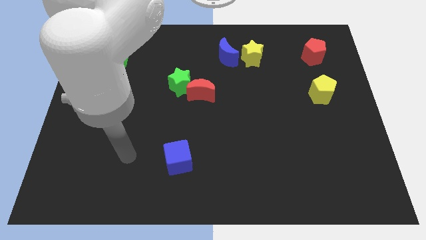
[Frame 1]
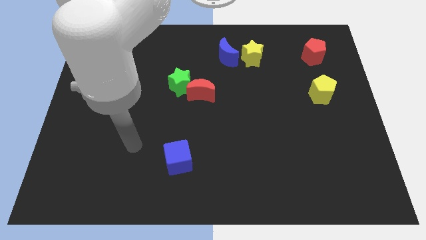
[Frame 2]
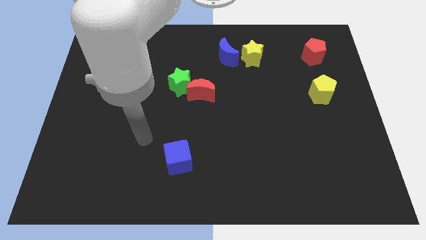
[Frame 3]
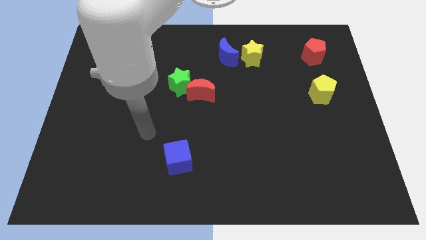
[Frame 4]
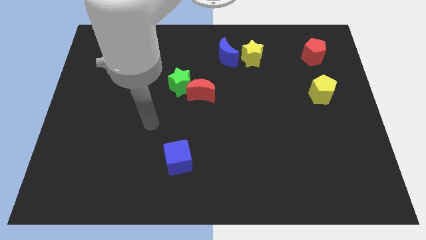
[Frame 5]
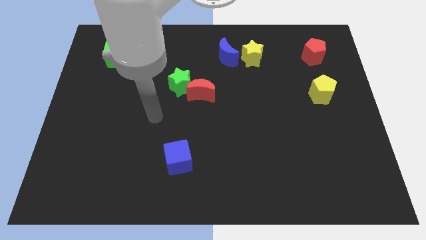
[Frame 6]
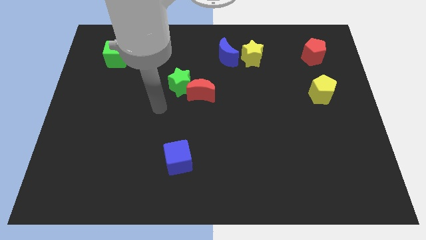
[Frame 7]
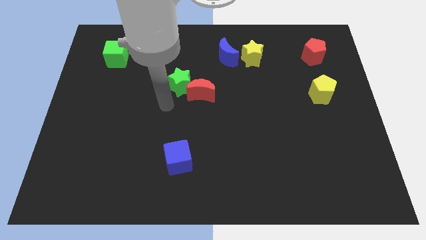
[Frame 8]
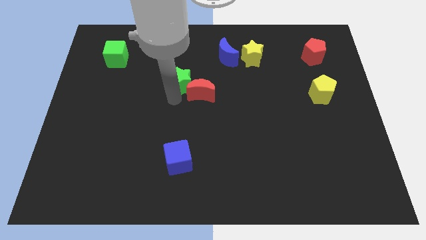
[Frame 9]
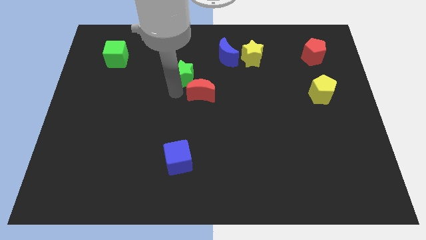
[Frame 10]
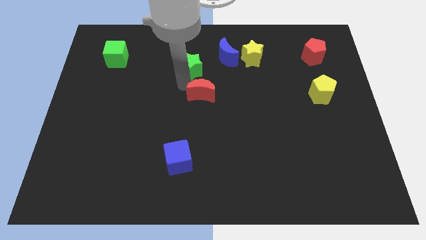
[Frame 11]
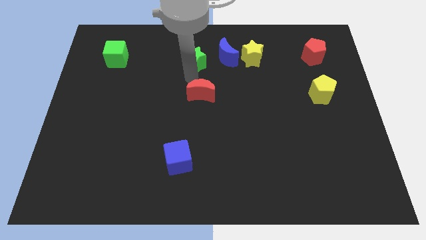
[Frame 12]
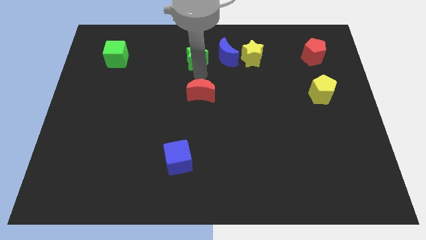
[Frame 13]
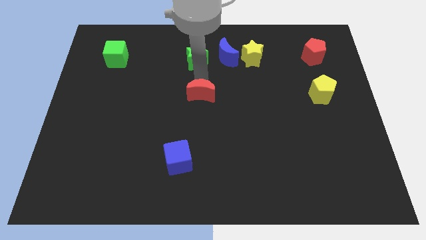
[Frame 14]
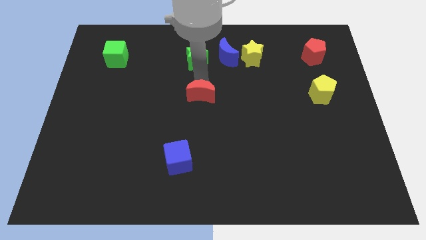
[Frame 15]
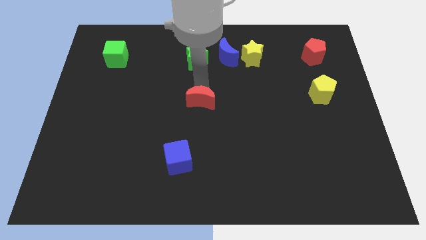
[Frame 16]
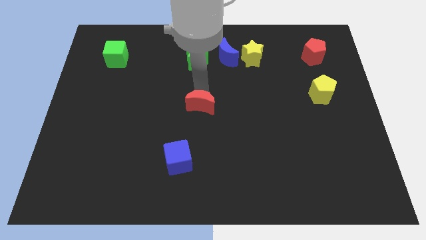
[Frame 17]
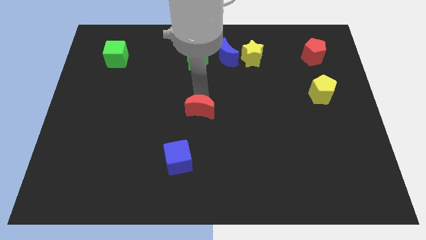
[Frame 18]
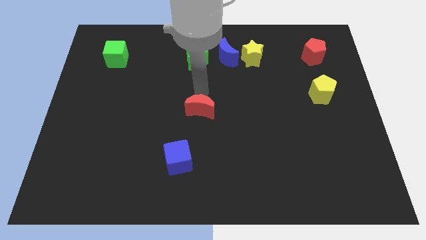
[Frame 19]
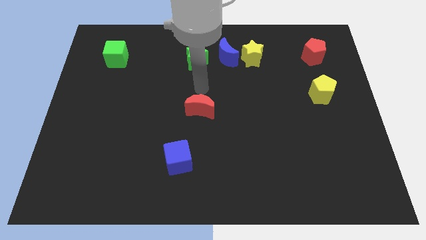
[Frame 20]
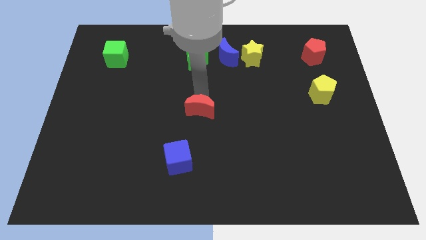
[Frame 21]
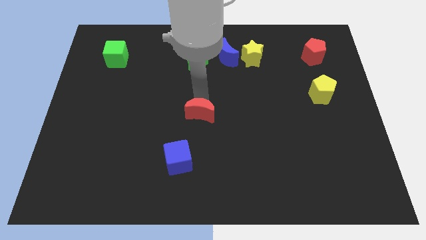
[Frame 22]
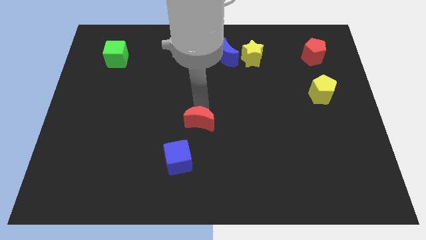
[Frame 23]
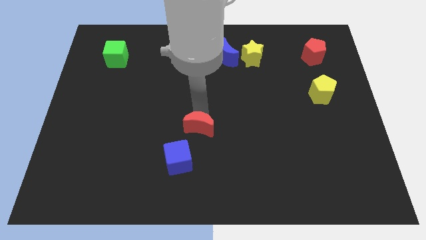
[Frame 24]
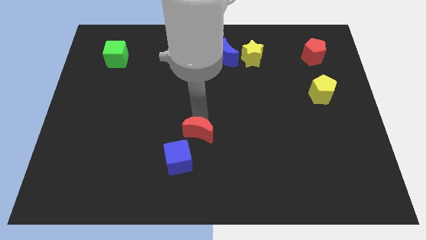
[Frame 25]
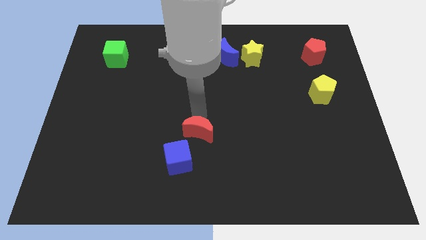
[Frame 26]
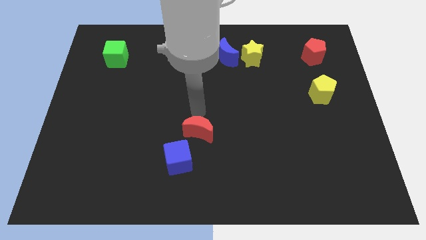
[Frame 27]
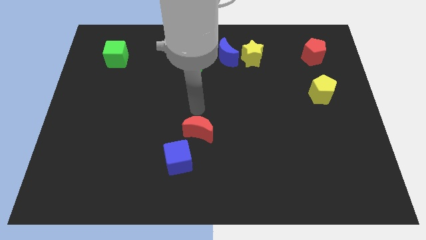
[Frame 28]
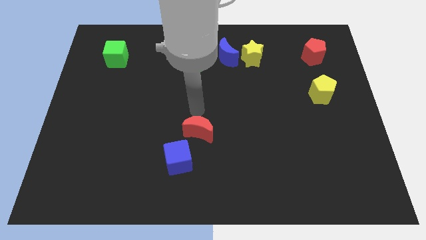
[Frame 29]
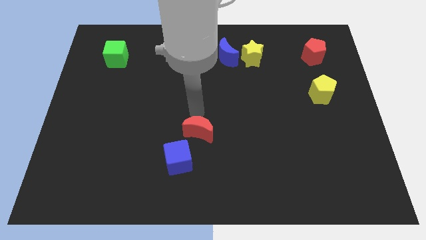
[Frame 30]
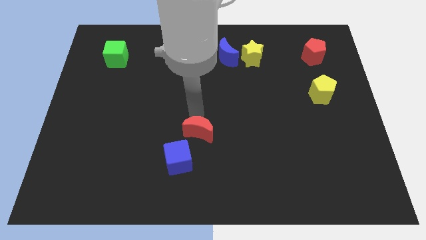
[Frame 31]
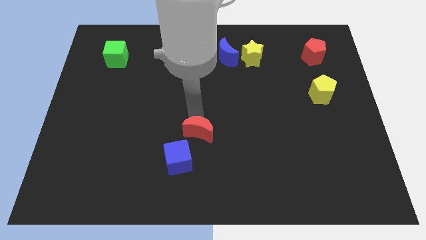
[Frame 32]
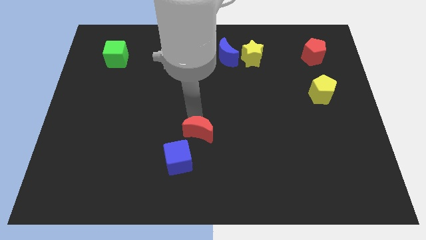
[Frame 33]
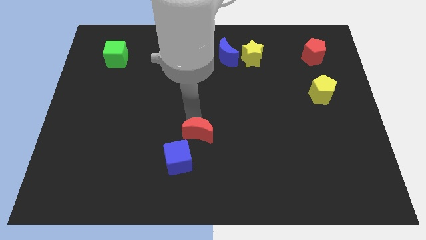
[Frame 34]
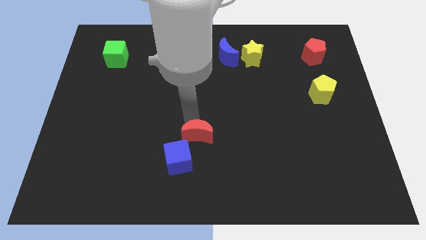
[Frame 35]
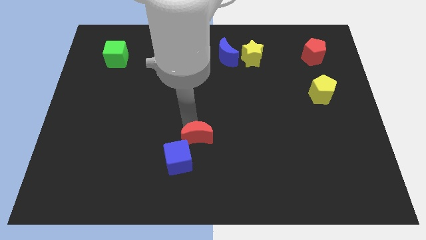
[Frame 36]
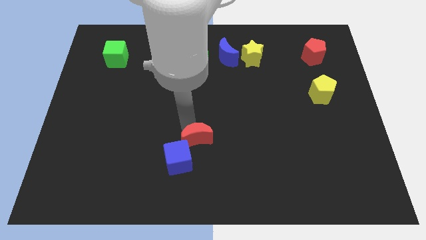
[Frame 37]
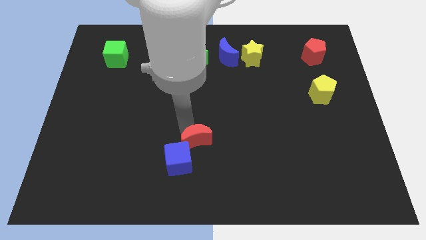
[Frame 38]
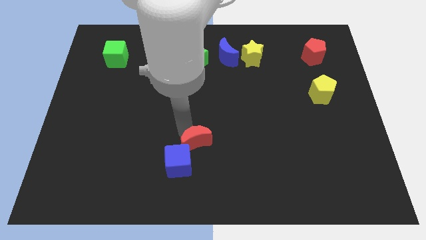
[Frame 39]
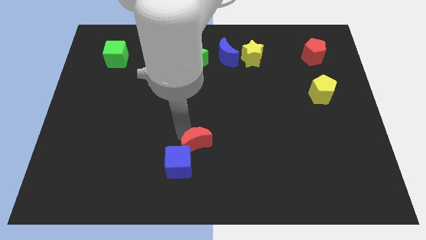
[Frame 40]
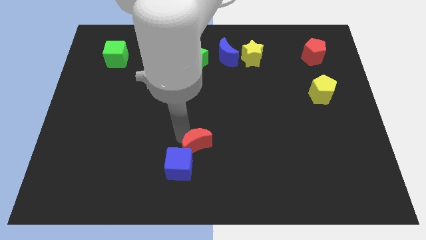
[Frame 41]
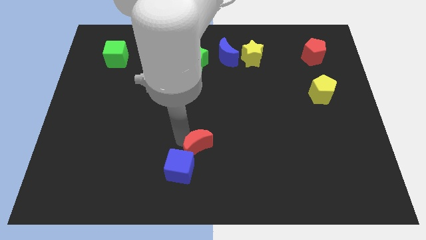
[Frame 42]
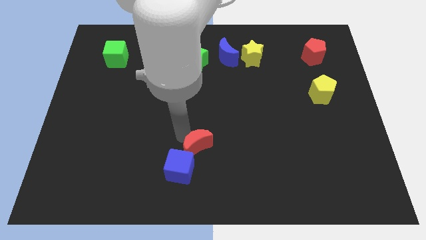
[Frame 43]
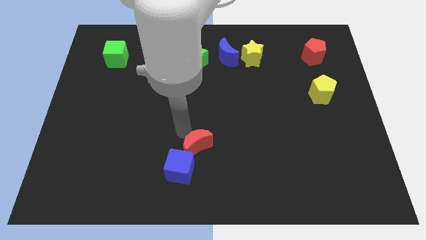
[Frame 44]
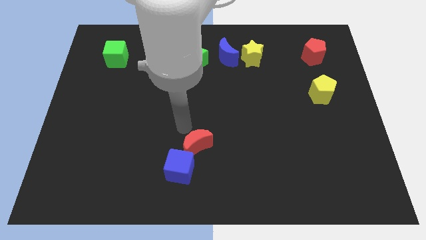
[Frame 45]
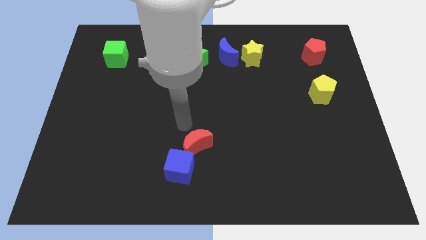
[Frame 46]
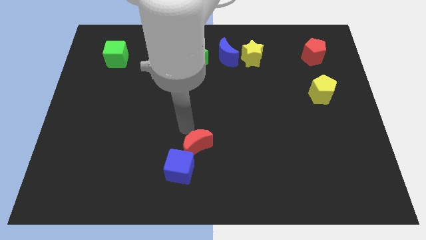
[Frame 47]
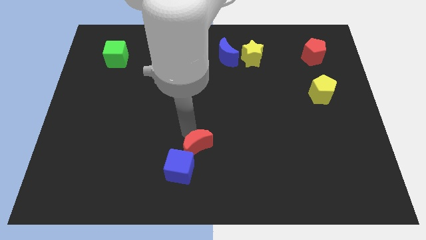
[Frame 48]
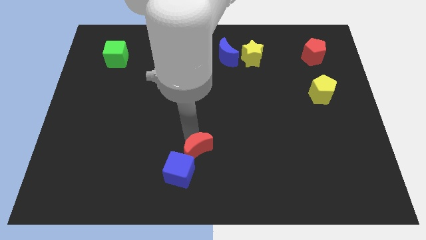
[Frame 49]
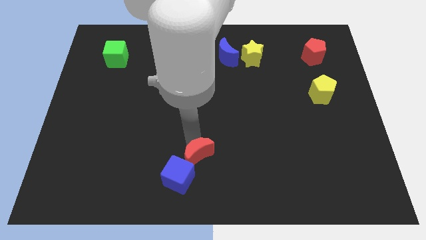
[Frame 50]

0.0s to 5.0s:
move the red moon to the bottom side

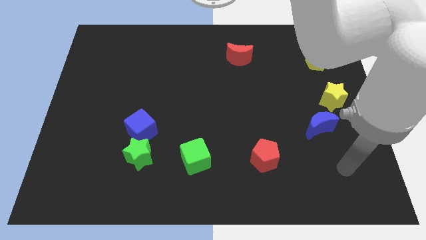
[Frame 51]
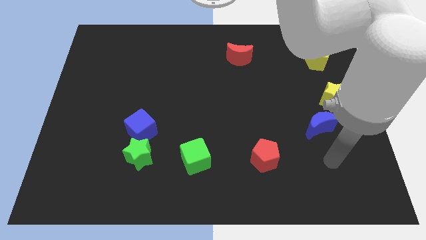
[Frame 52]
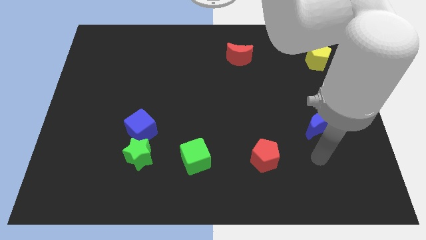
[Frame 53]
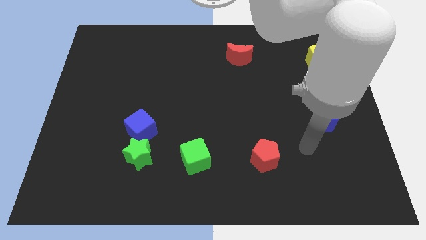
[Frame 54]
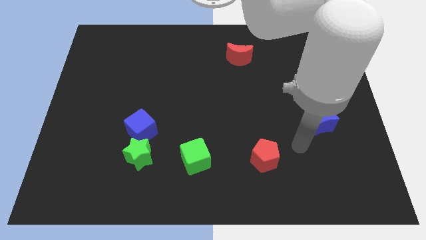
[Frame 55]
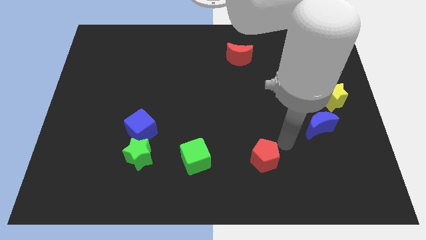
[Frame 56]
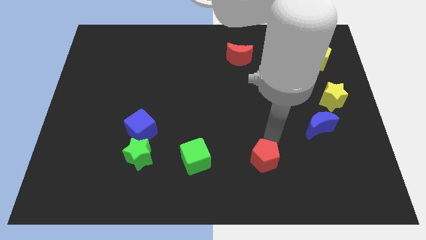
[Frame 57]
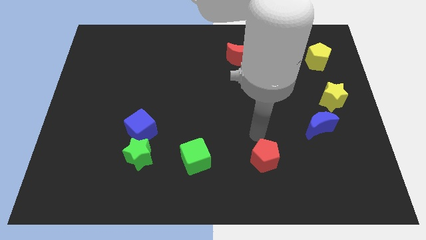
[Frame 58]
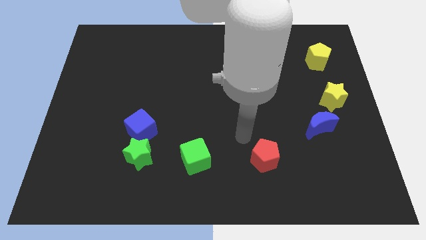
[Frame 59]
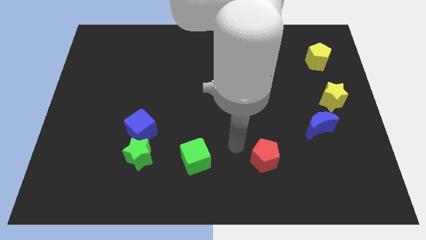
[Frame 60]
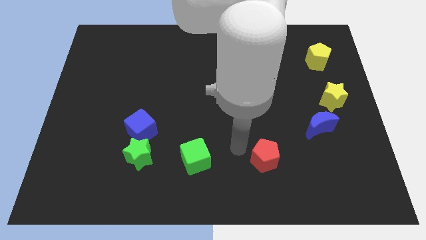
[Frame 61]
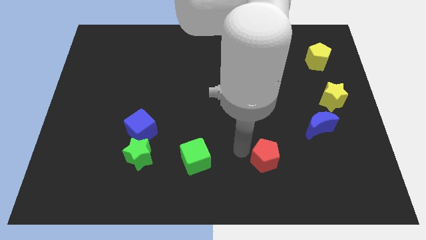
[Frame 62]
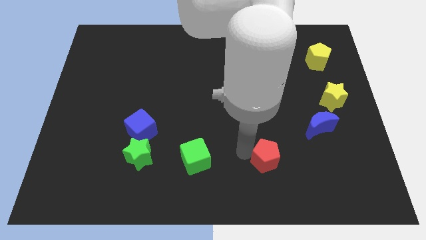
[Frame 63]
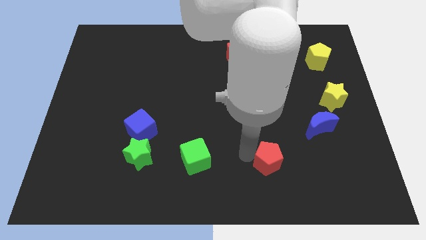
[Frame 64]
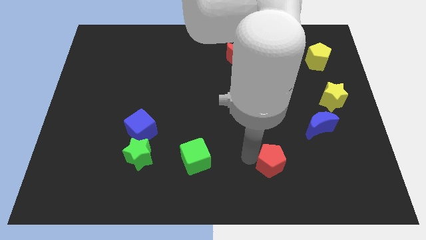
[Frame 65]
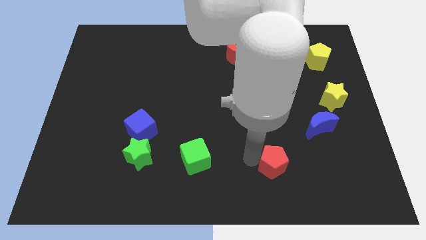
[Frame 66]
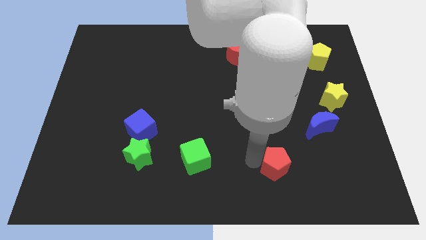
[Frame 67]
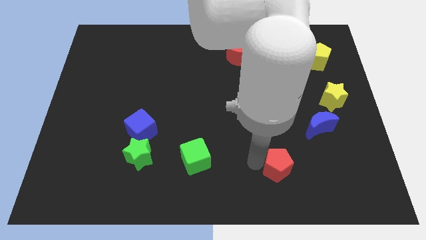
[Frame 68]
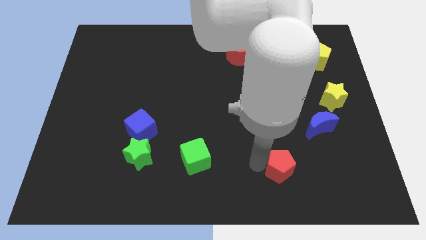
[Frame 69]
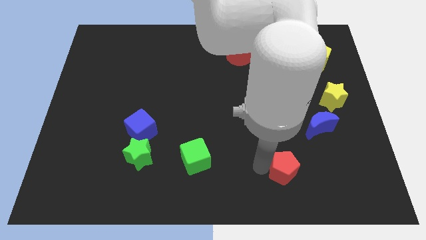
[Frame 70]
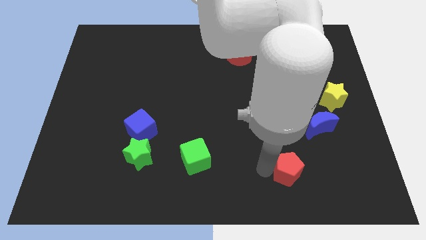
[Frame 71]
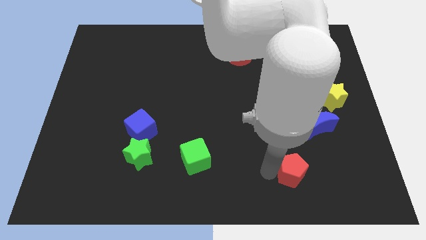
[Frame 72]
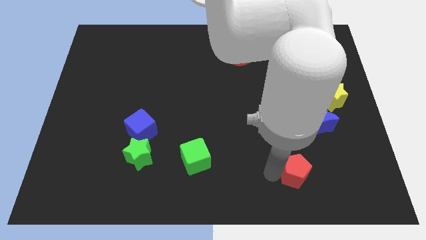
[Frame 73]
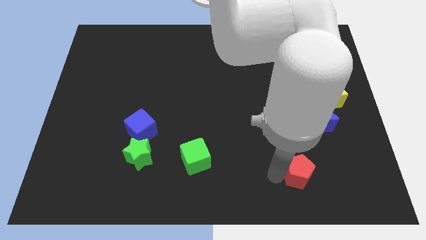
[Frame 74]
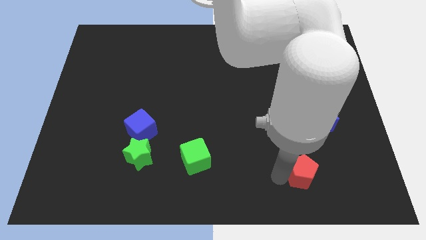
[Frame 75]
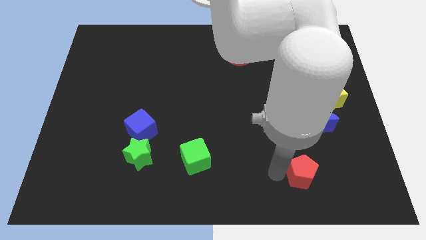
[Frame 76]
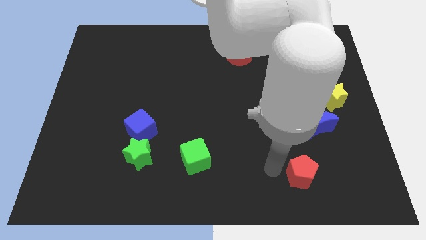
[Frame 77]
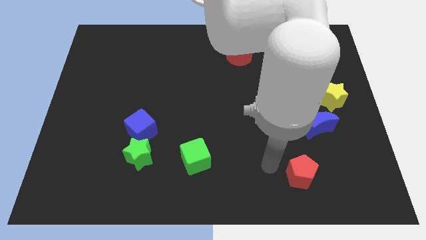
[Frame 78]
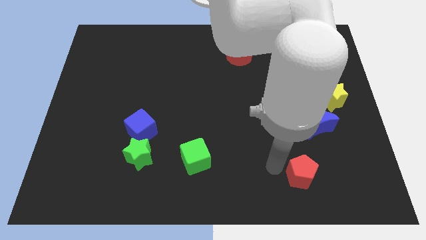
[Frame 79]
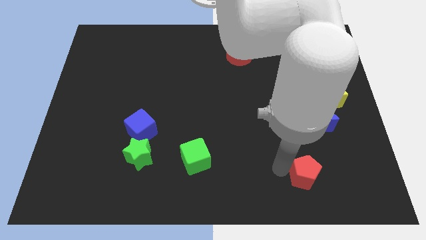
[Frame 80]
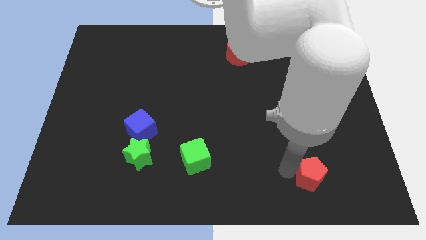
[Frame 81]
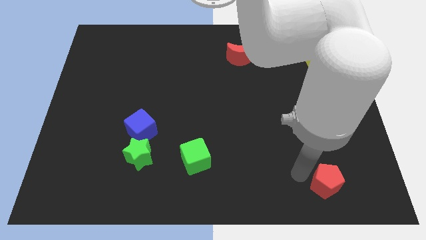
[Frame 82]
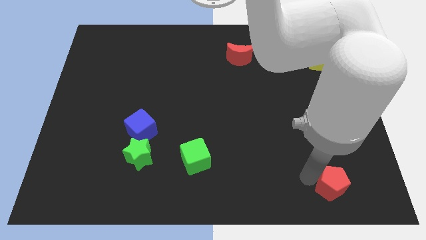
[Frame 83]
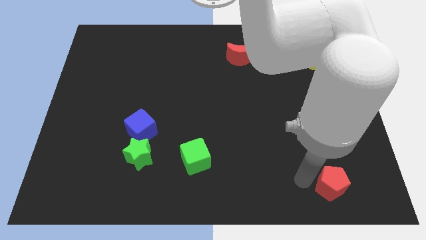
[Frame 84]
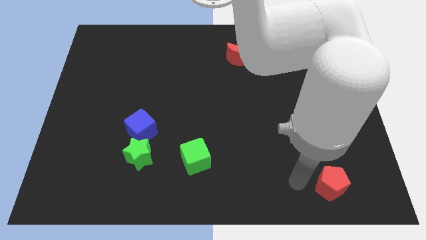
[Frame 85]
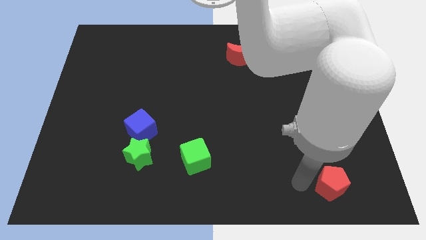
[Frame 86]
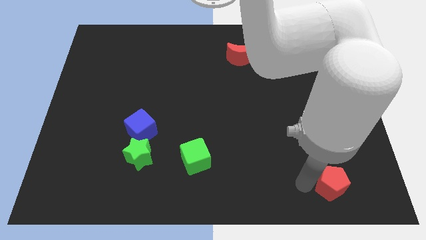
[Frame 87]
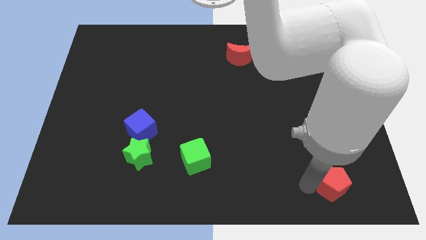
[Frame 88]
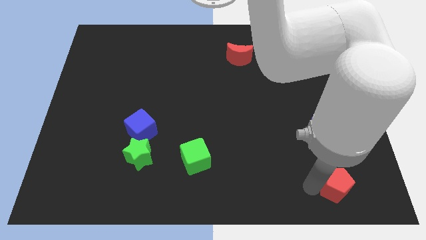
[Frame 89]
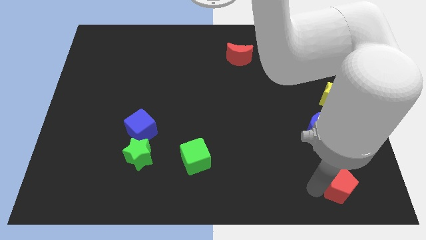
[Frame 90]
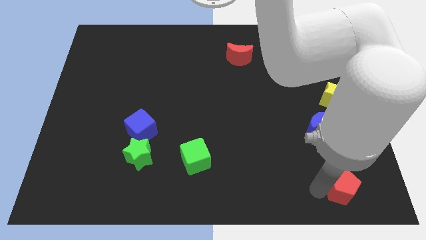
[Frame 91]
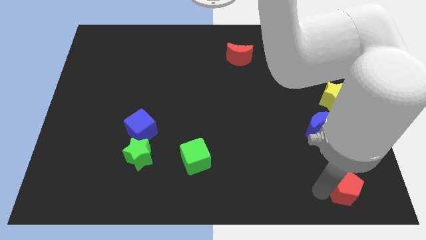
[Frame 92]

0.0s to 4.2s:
slide the red pentagon to the bottom right corner
